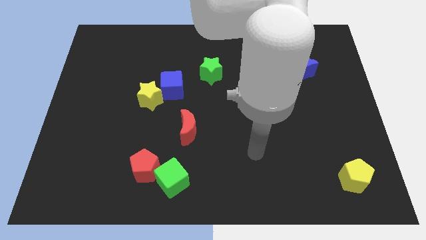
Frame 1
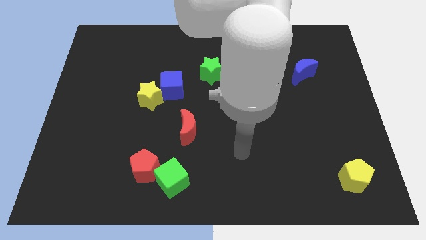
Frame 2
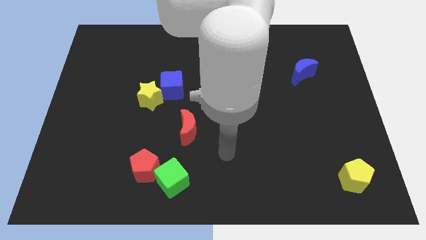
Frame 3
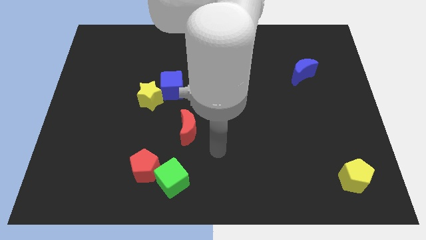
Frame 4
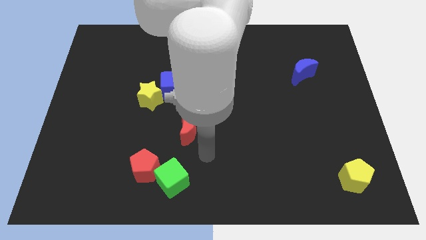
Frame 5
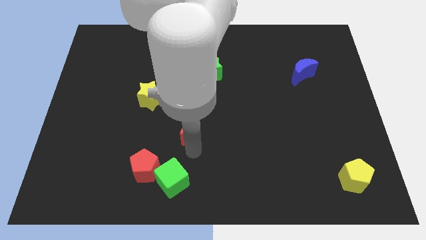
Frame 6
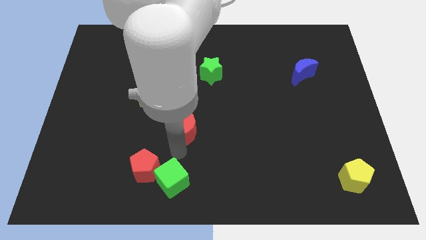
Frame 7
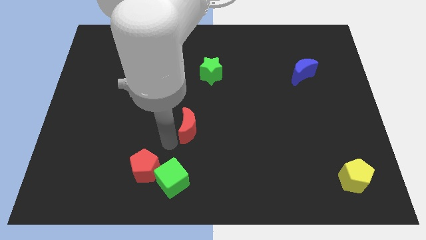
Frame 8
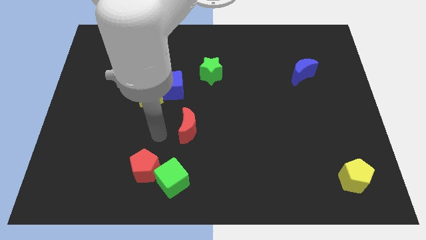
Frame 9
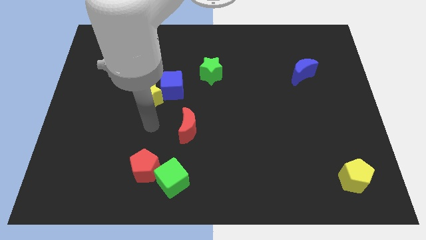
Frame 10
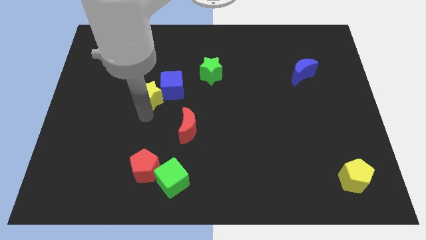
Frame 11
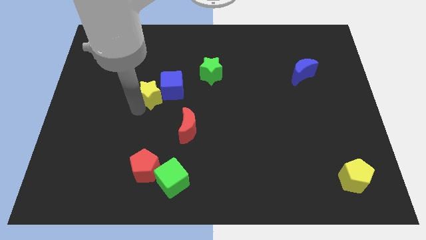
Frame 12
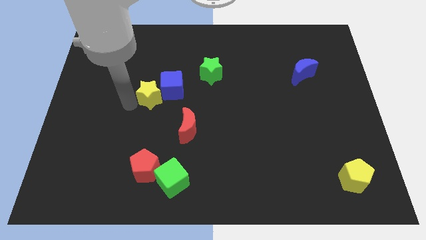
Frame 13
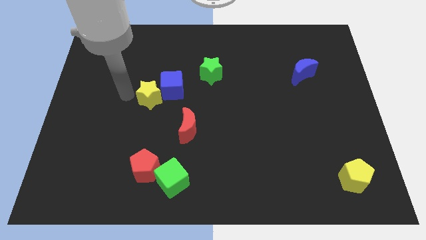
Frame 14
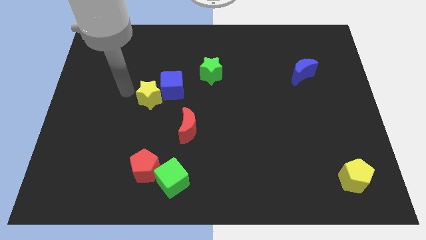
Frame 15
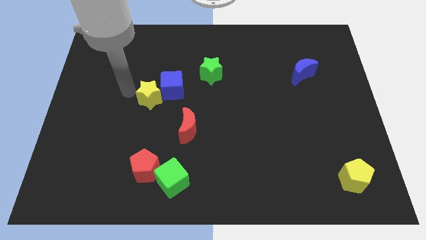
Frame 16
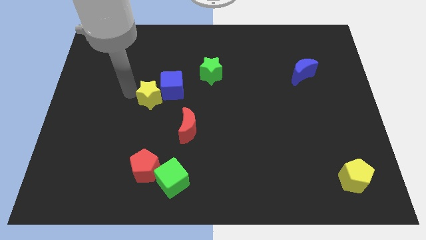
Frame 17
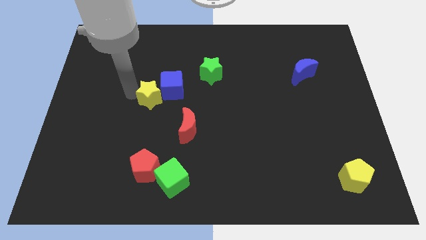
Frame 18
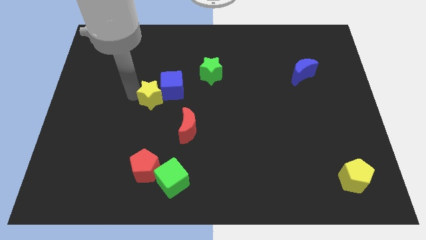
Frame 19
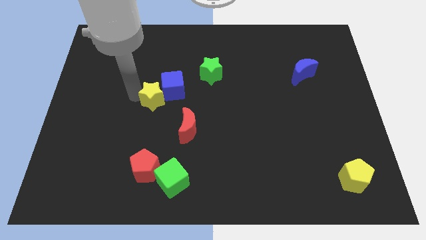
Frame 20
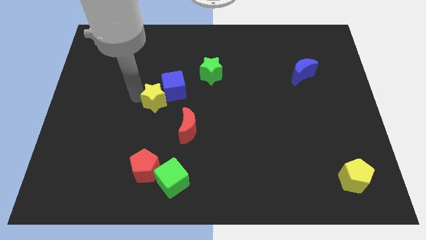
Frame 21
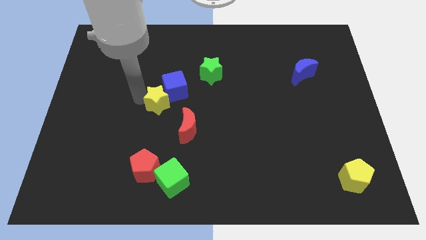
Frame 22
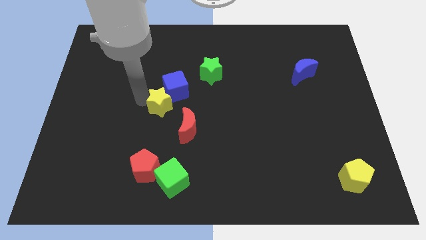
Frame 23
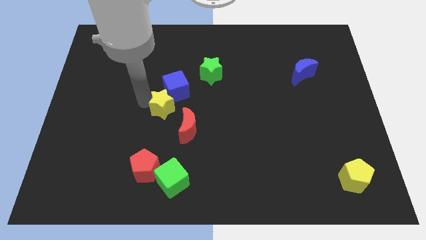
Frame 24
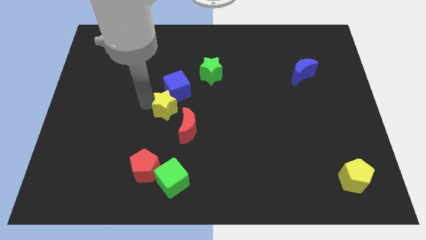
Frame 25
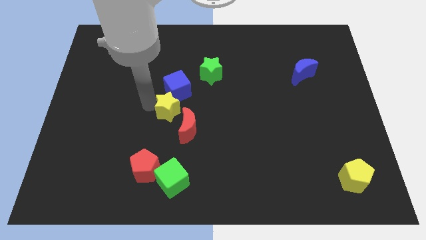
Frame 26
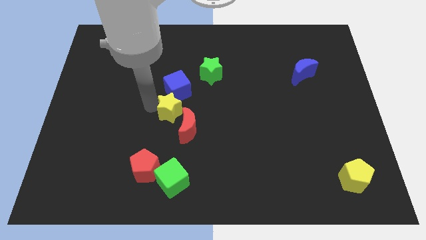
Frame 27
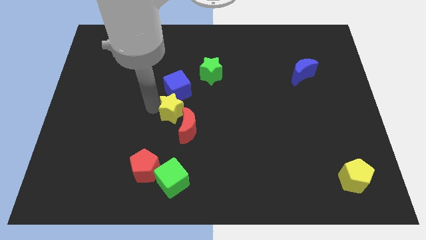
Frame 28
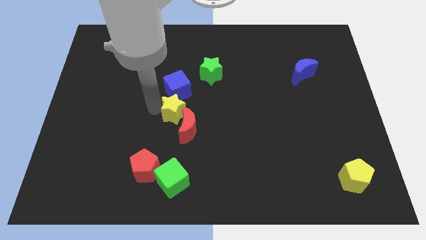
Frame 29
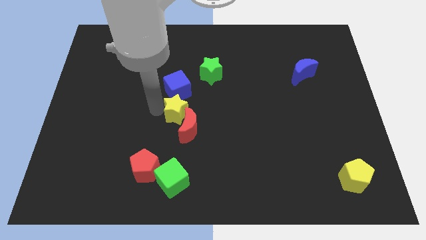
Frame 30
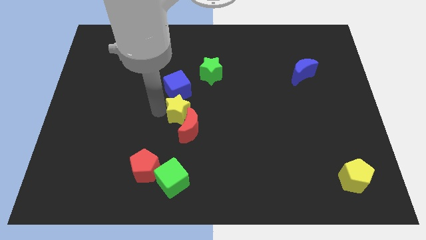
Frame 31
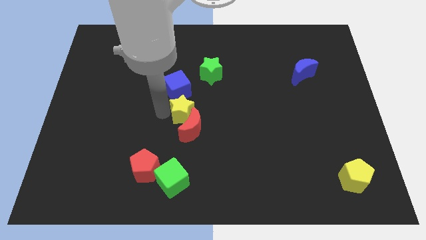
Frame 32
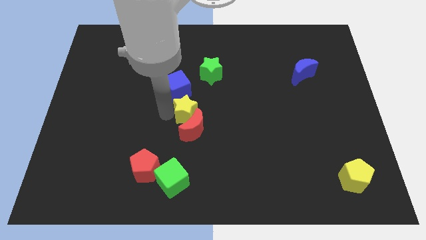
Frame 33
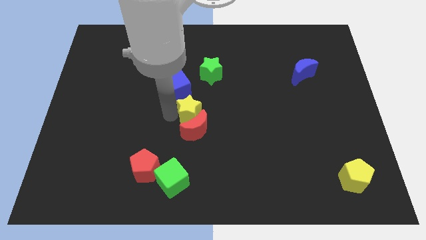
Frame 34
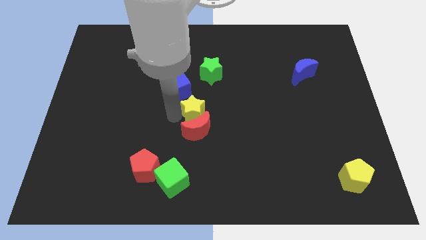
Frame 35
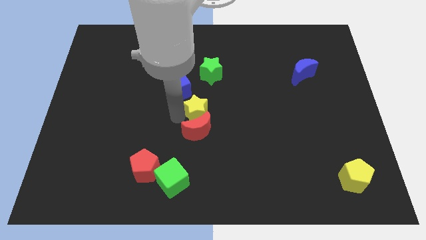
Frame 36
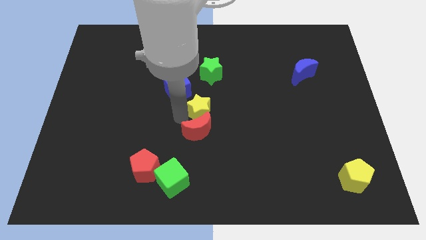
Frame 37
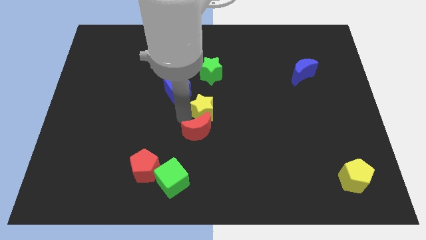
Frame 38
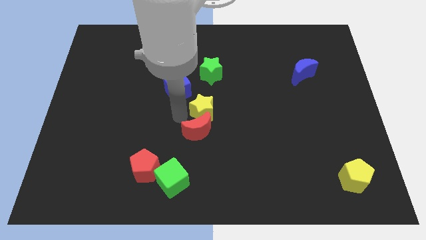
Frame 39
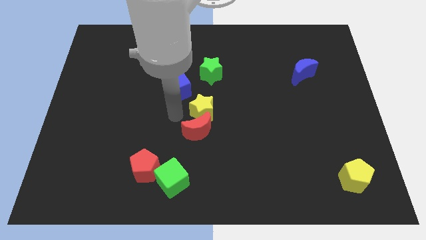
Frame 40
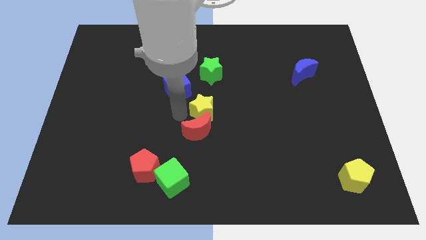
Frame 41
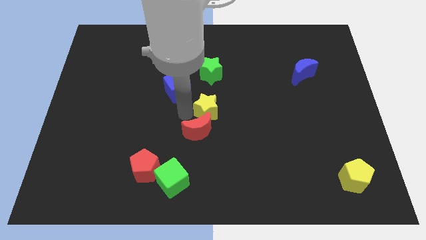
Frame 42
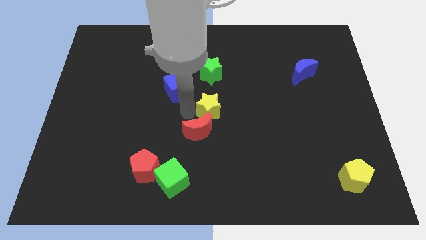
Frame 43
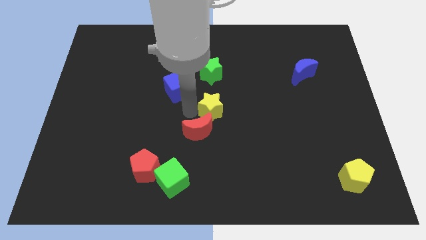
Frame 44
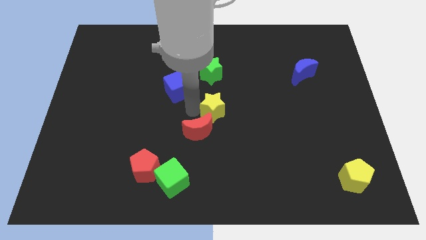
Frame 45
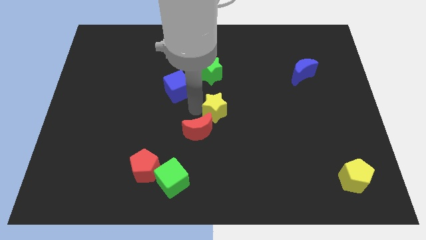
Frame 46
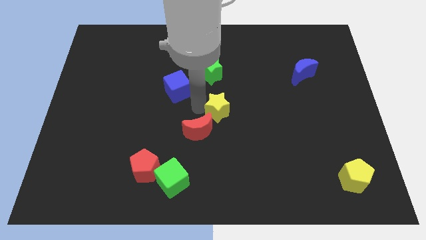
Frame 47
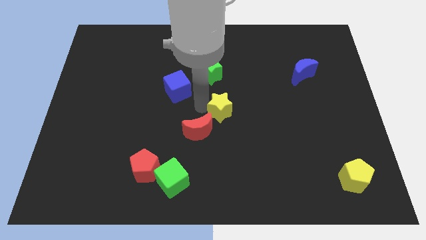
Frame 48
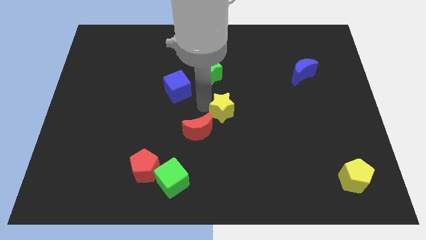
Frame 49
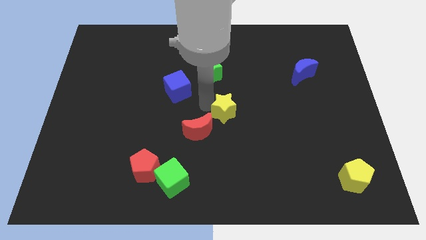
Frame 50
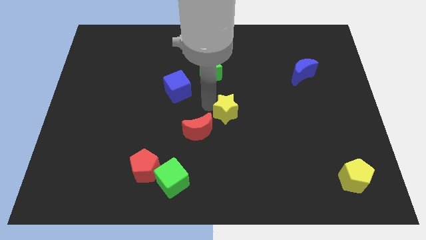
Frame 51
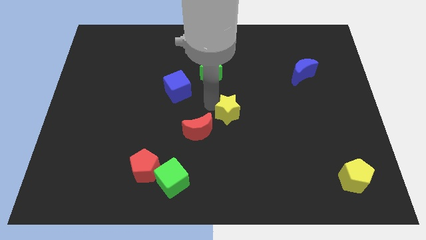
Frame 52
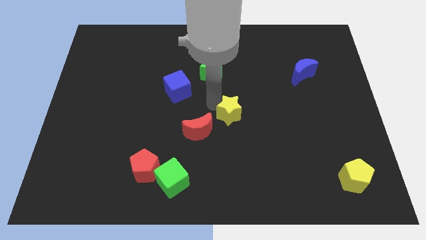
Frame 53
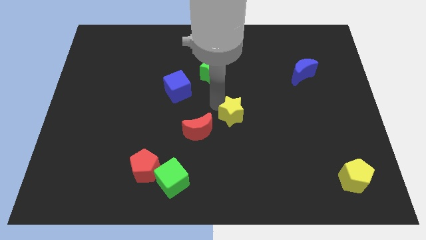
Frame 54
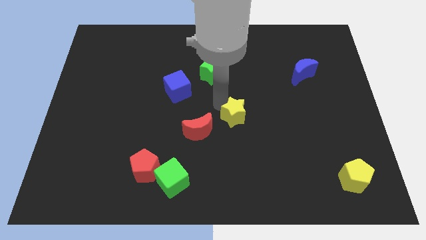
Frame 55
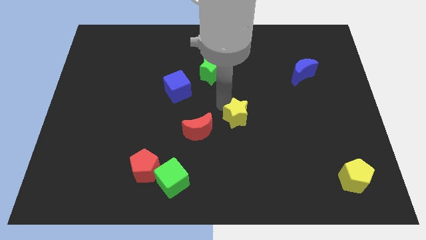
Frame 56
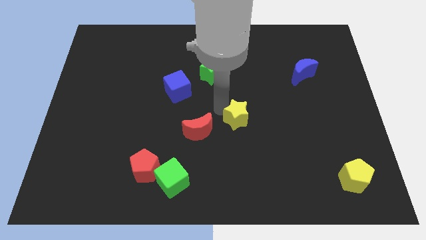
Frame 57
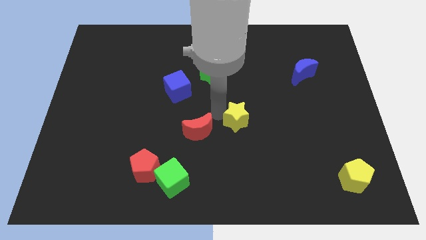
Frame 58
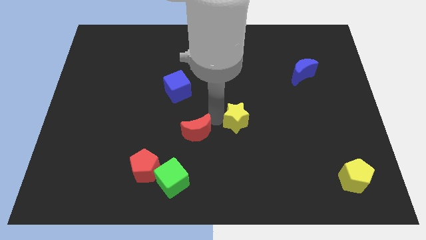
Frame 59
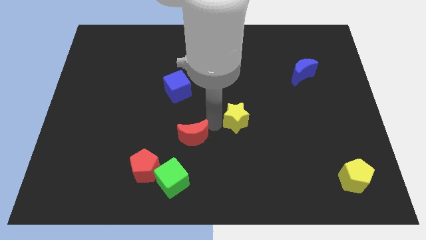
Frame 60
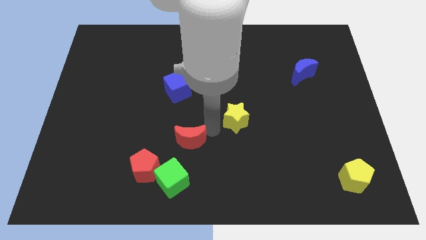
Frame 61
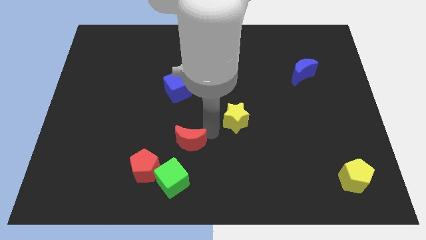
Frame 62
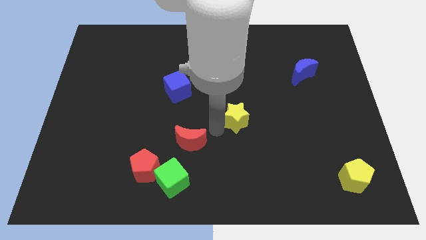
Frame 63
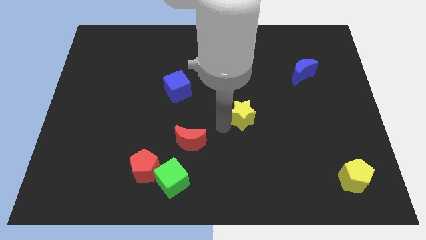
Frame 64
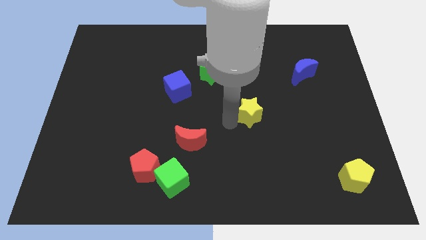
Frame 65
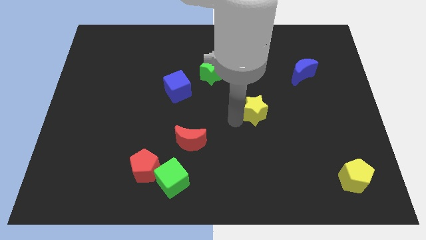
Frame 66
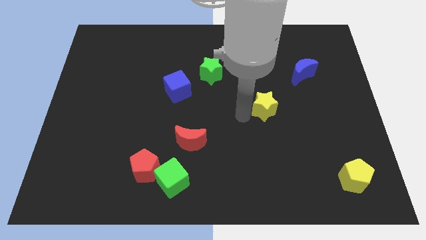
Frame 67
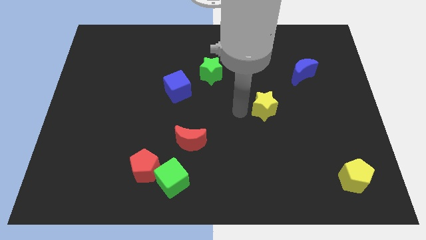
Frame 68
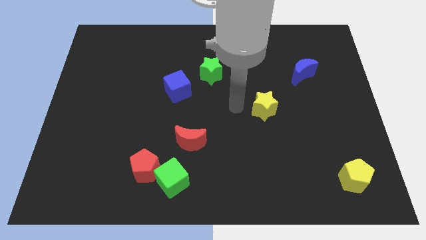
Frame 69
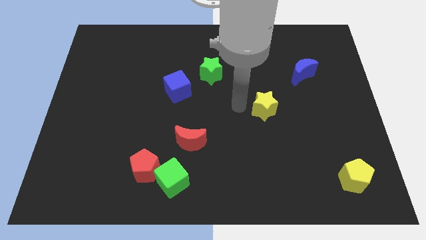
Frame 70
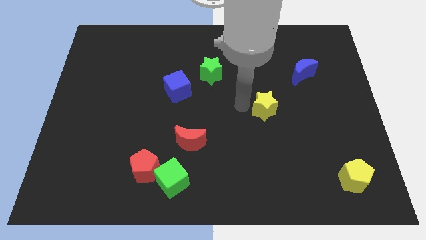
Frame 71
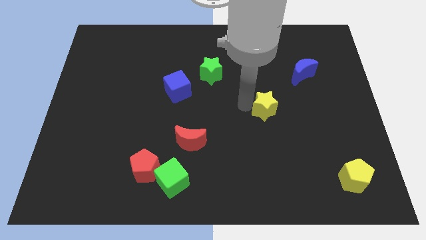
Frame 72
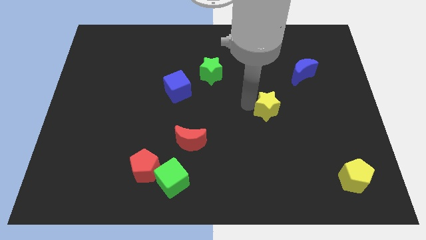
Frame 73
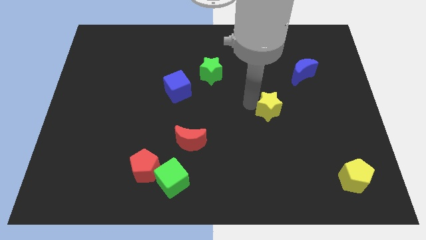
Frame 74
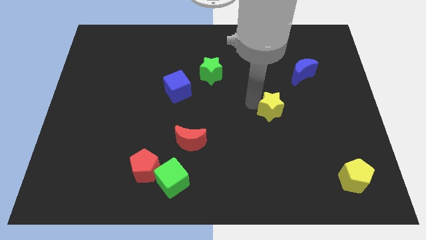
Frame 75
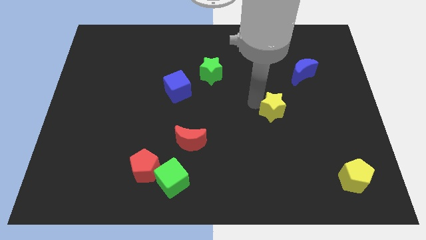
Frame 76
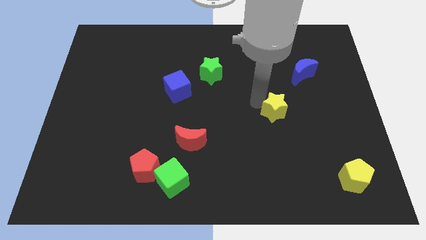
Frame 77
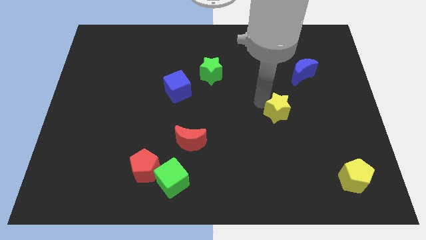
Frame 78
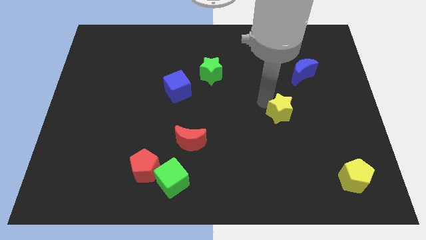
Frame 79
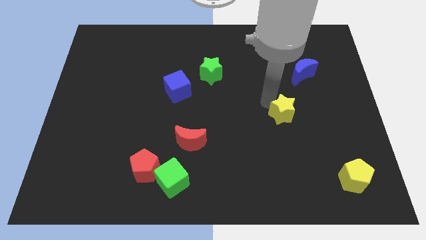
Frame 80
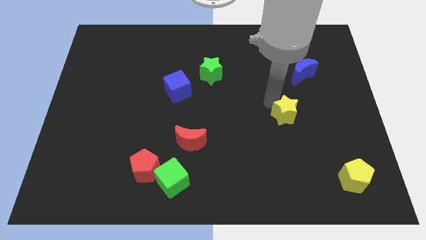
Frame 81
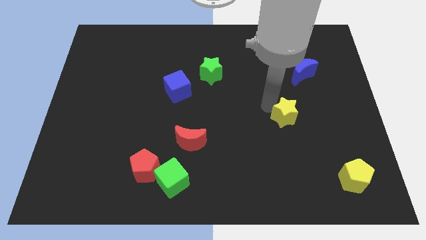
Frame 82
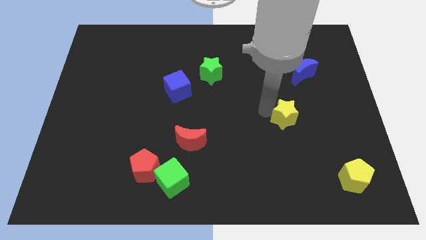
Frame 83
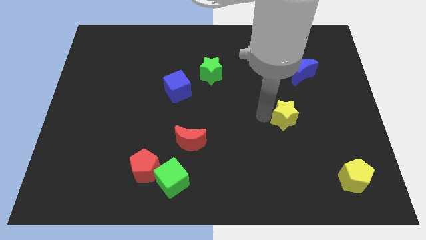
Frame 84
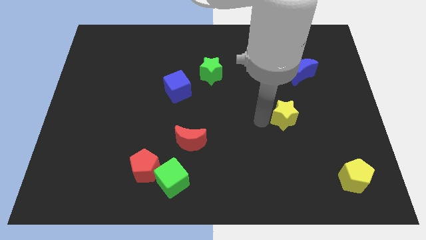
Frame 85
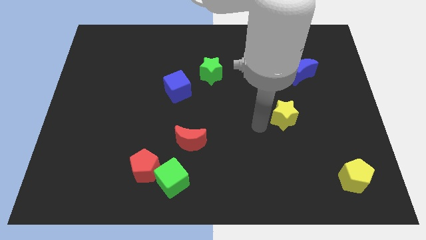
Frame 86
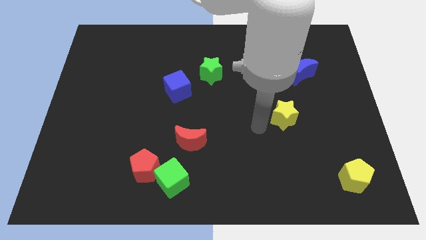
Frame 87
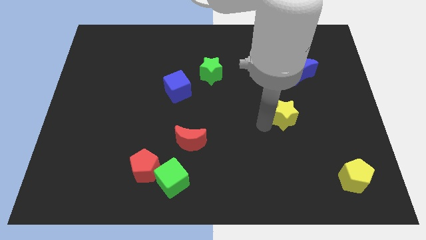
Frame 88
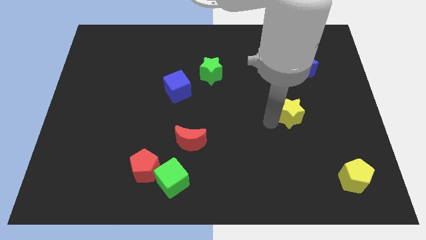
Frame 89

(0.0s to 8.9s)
push the yellow star to the bottom of the blue moon
